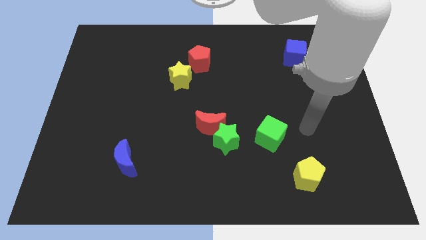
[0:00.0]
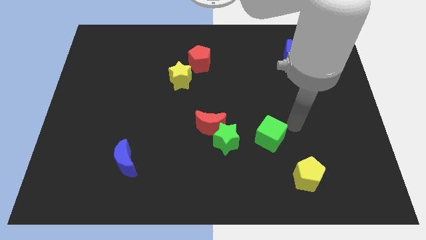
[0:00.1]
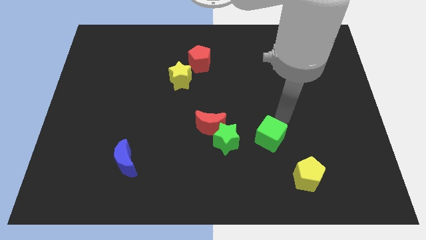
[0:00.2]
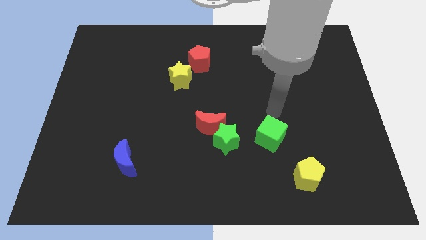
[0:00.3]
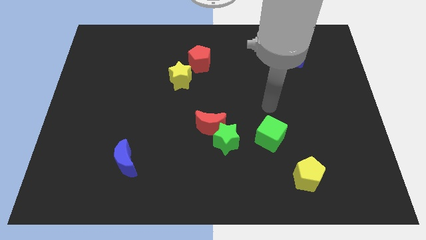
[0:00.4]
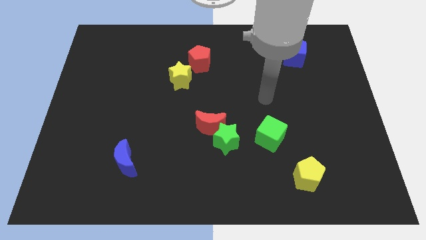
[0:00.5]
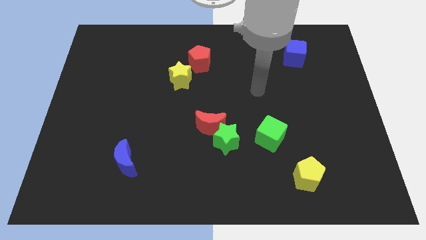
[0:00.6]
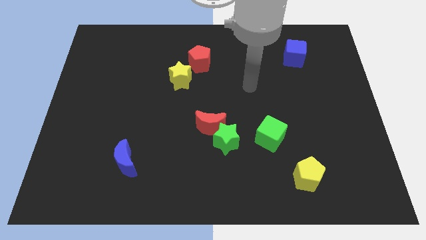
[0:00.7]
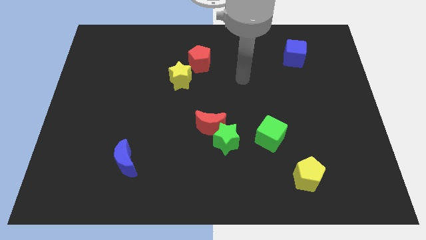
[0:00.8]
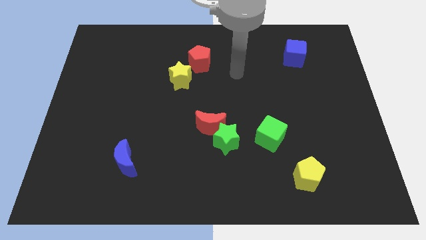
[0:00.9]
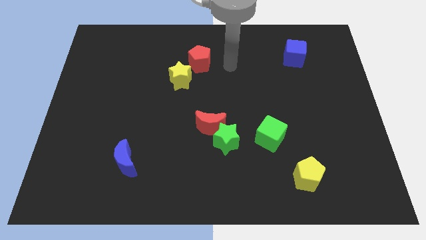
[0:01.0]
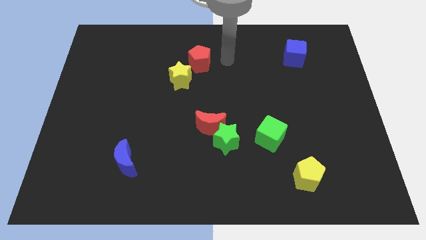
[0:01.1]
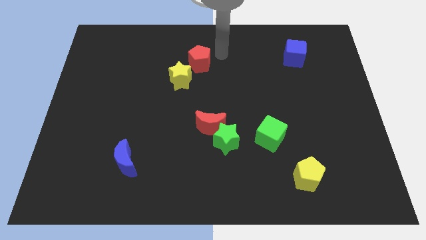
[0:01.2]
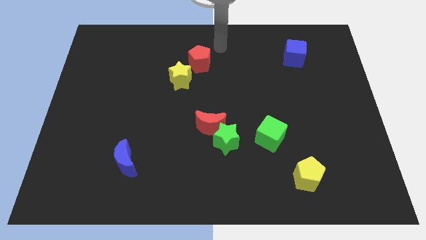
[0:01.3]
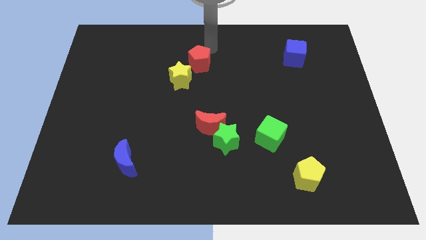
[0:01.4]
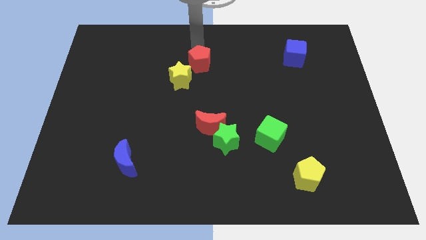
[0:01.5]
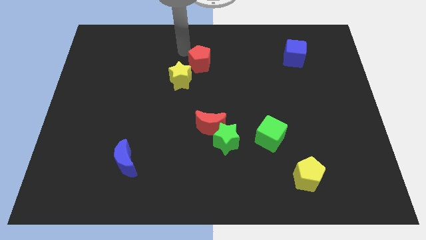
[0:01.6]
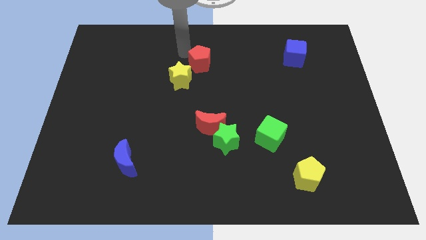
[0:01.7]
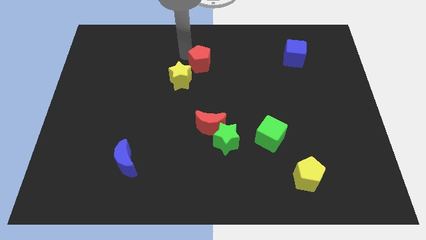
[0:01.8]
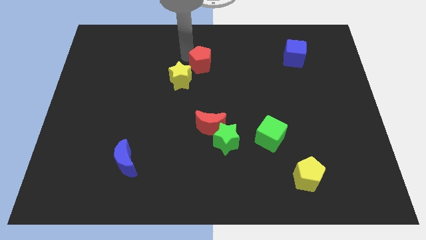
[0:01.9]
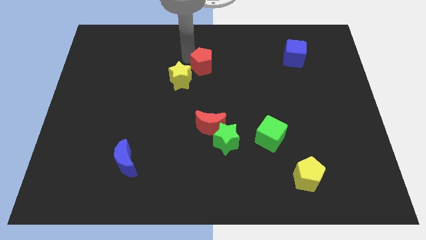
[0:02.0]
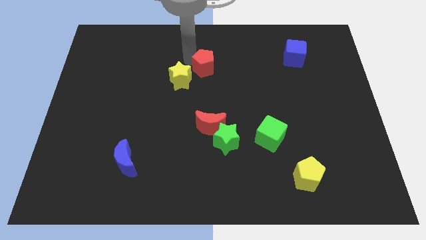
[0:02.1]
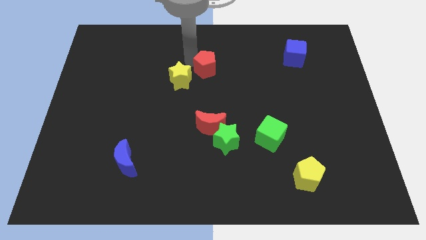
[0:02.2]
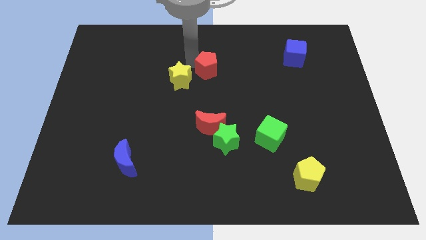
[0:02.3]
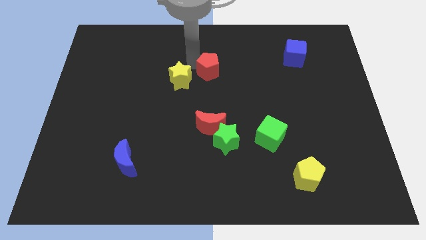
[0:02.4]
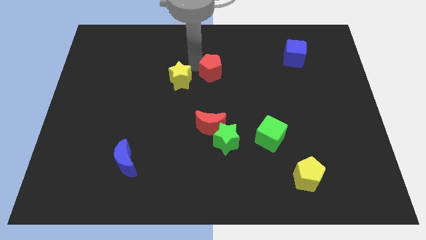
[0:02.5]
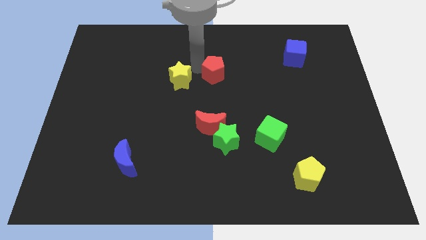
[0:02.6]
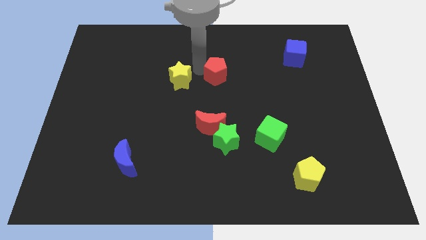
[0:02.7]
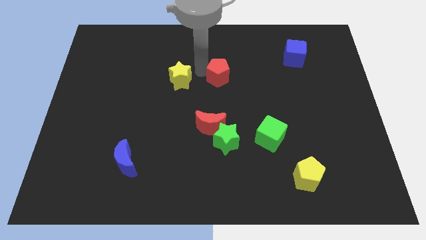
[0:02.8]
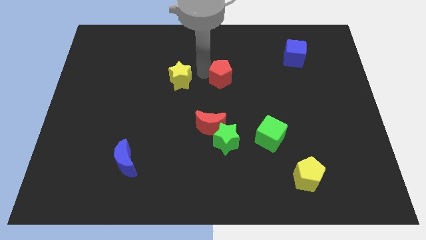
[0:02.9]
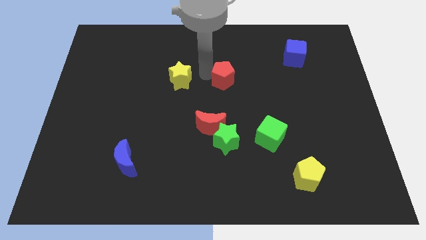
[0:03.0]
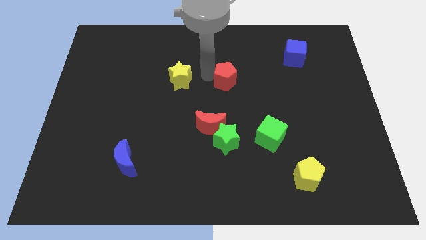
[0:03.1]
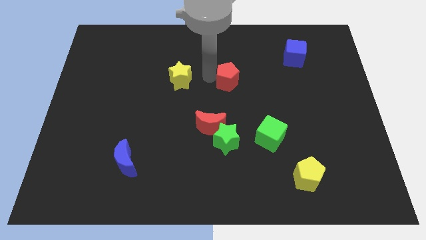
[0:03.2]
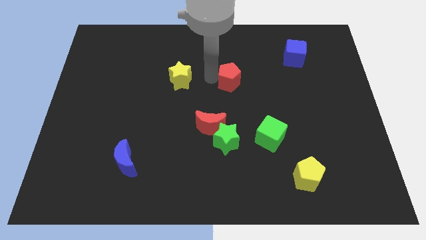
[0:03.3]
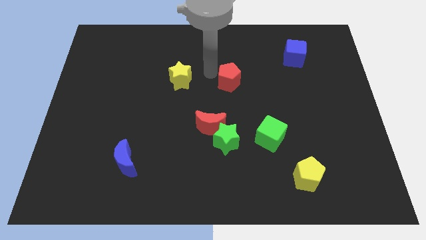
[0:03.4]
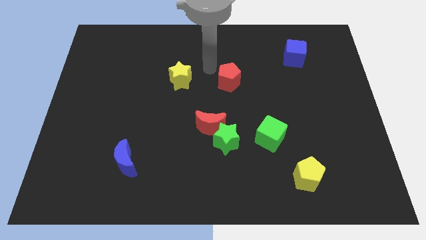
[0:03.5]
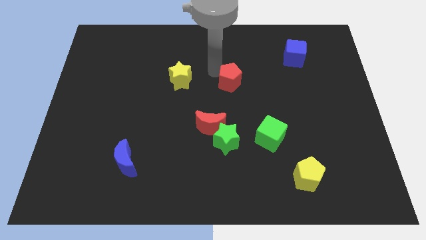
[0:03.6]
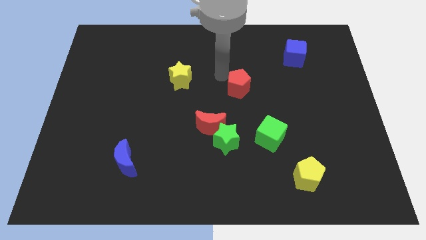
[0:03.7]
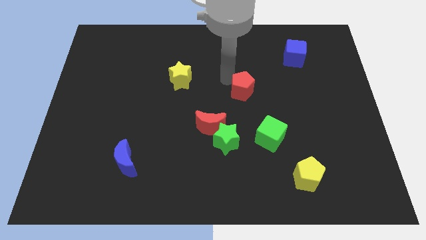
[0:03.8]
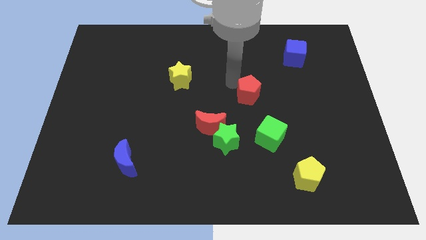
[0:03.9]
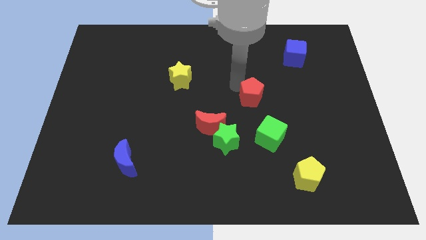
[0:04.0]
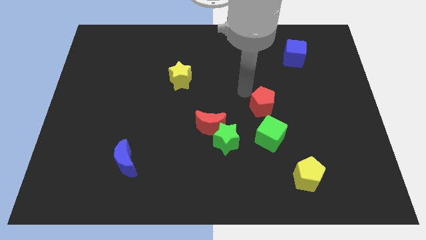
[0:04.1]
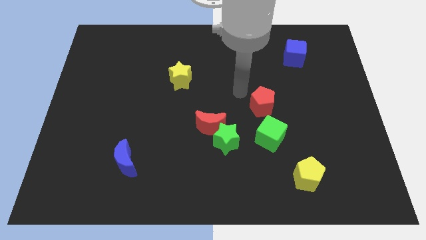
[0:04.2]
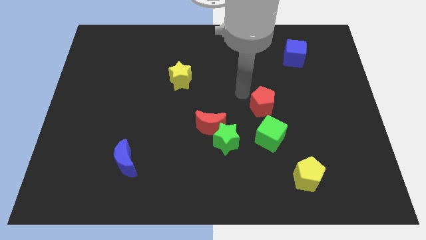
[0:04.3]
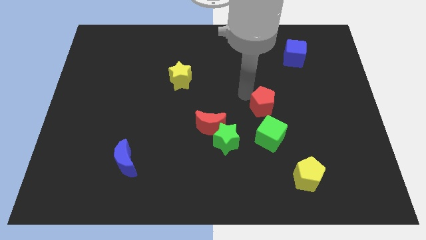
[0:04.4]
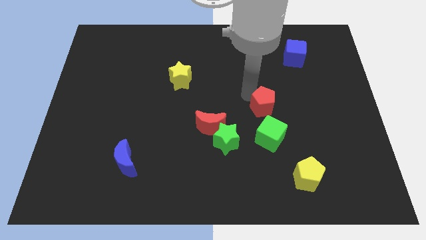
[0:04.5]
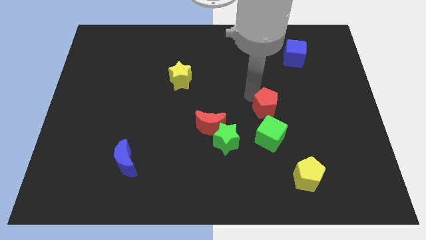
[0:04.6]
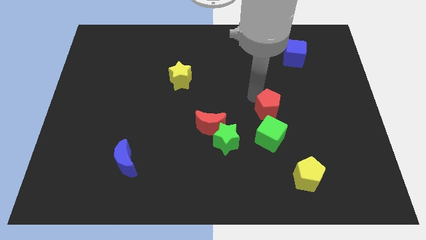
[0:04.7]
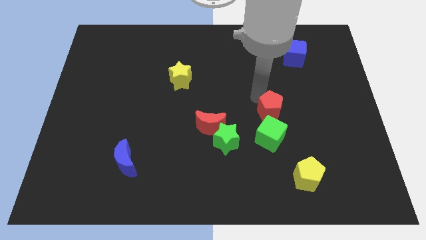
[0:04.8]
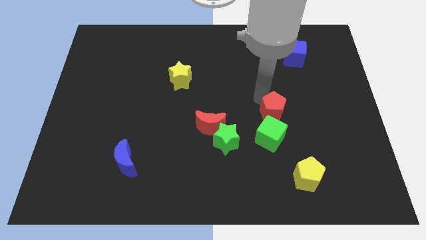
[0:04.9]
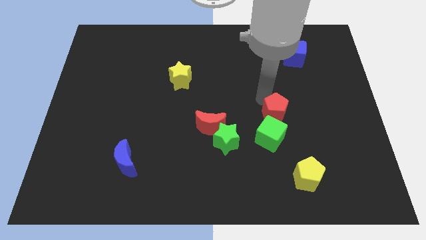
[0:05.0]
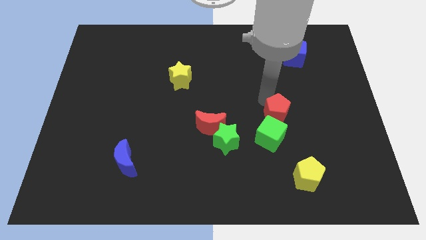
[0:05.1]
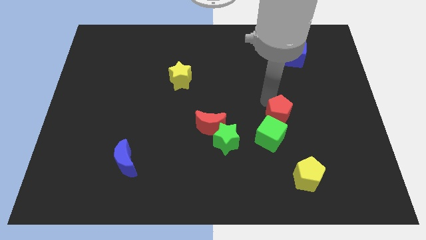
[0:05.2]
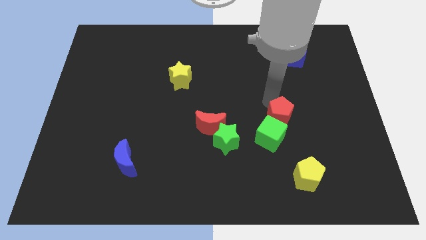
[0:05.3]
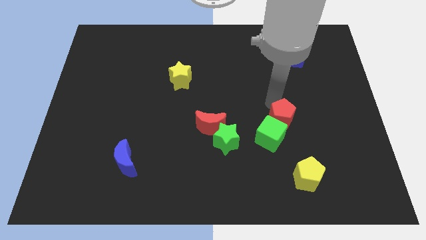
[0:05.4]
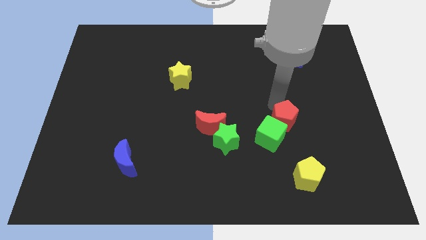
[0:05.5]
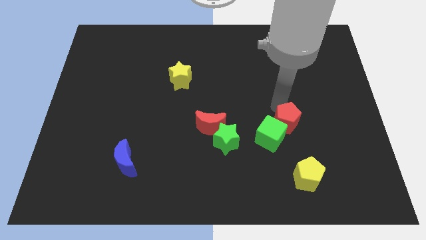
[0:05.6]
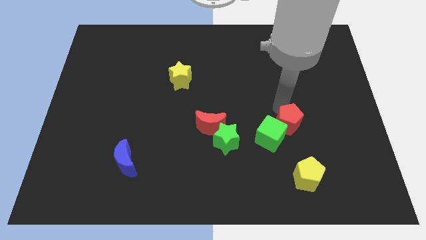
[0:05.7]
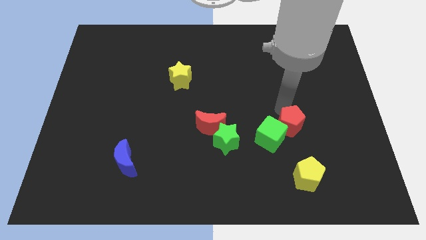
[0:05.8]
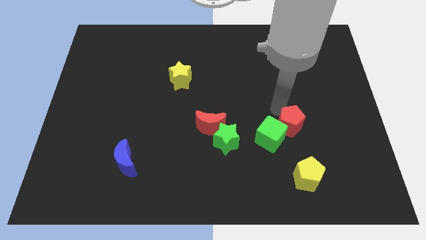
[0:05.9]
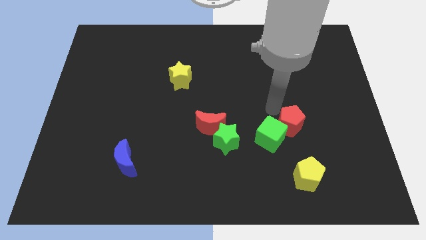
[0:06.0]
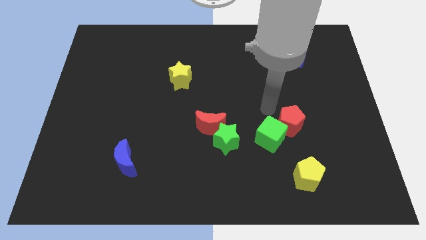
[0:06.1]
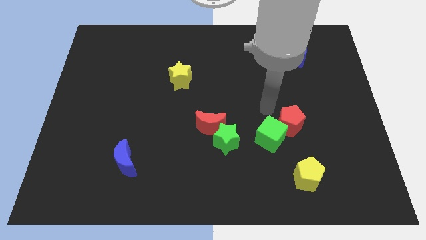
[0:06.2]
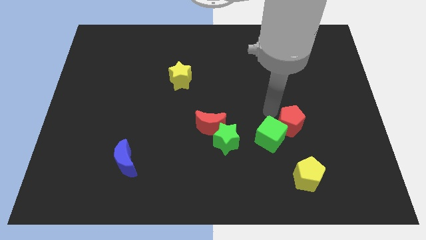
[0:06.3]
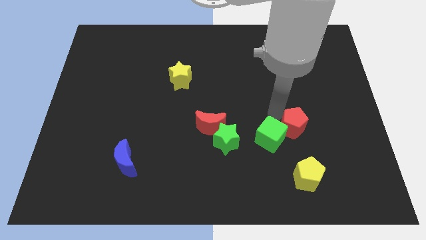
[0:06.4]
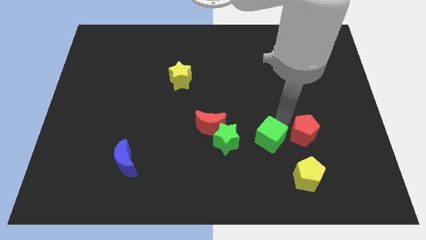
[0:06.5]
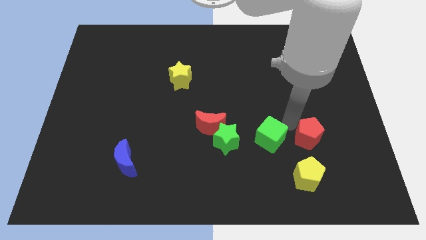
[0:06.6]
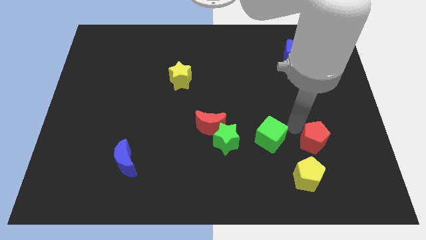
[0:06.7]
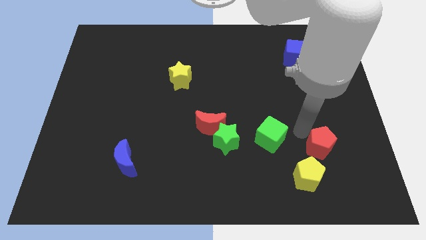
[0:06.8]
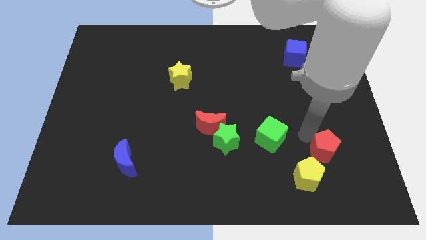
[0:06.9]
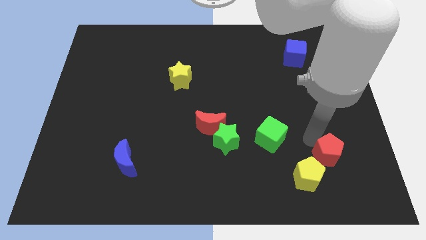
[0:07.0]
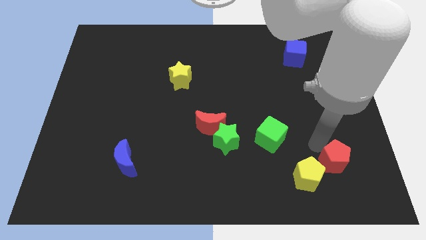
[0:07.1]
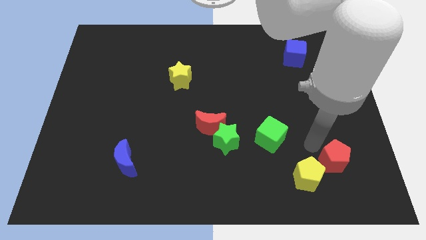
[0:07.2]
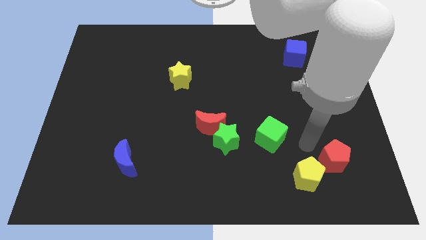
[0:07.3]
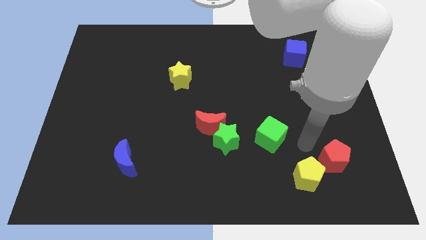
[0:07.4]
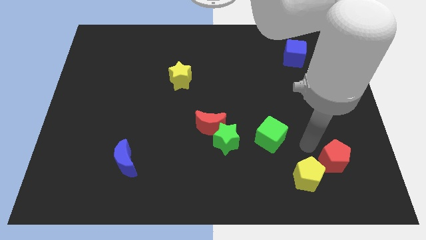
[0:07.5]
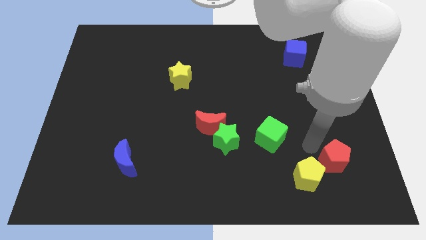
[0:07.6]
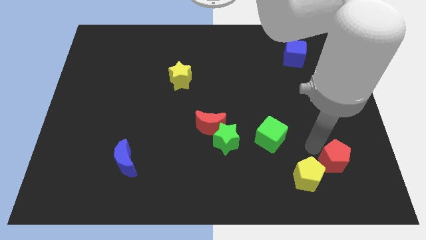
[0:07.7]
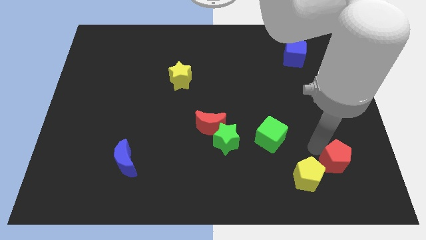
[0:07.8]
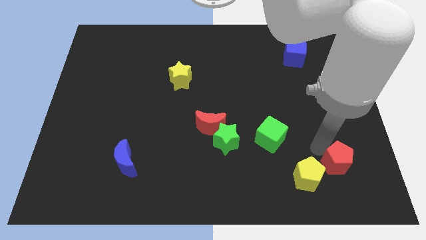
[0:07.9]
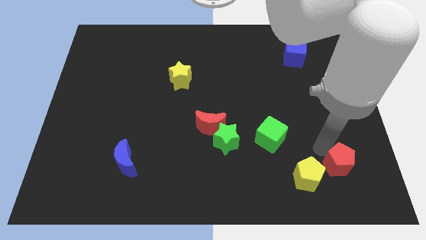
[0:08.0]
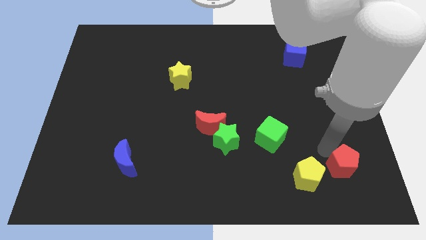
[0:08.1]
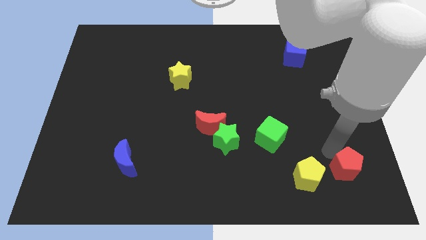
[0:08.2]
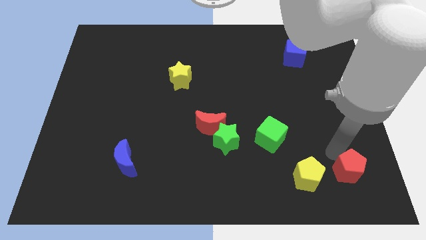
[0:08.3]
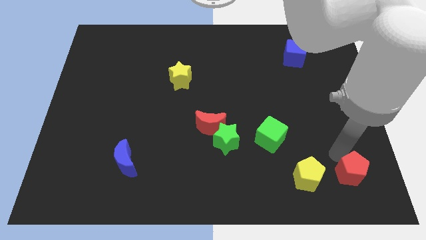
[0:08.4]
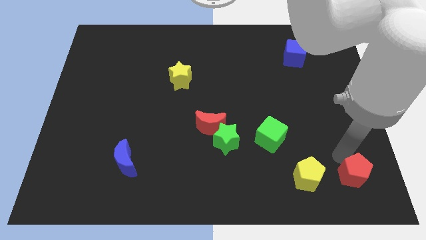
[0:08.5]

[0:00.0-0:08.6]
slide the red pentagon to the bottom right
